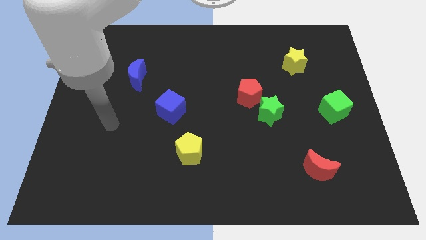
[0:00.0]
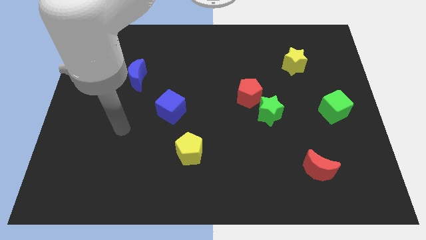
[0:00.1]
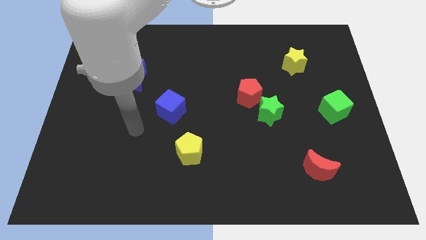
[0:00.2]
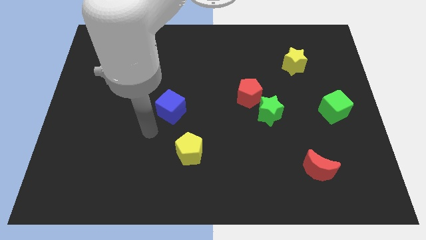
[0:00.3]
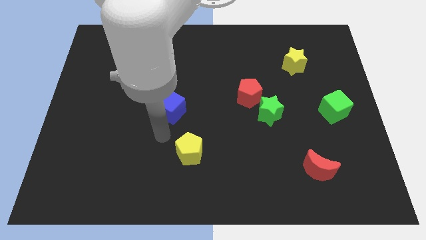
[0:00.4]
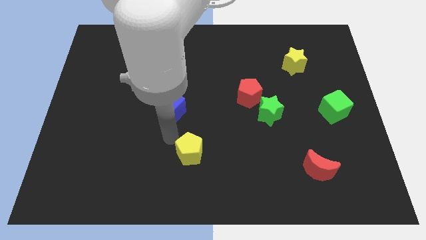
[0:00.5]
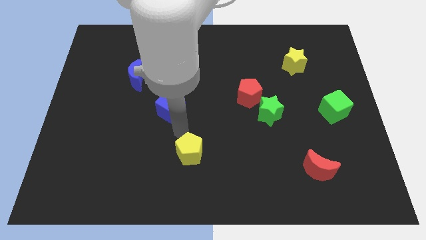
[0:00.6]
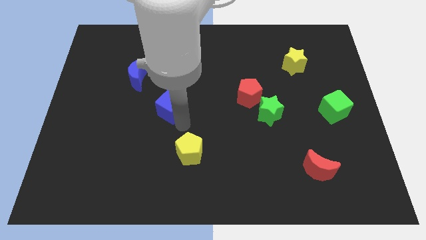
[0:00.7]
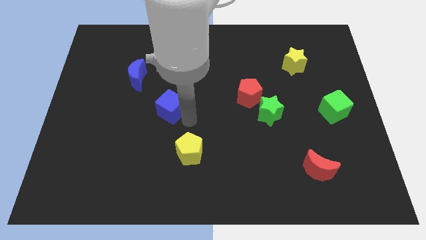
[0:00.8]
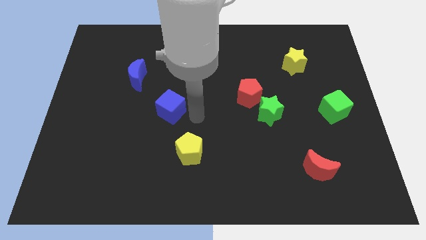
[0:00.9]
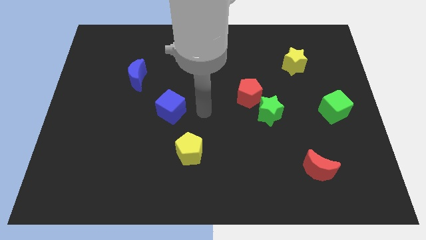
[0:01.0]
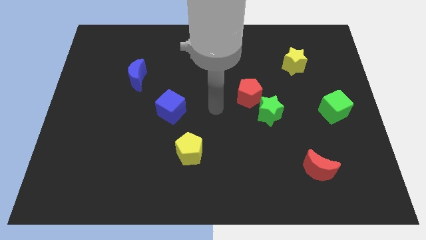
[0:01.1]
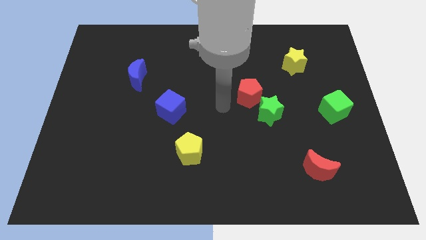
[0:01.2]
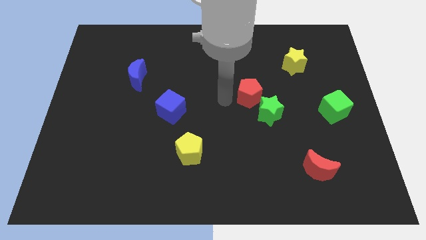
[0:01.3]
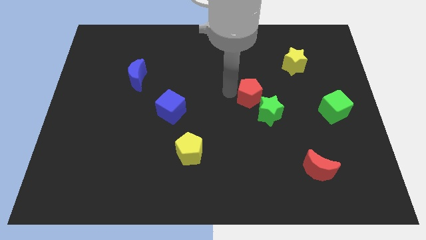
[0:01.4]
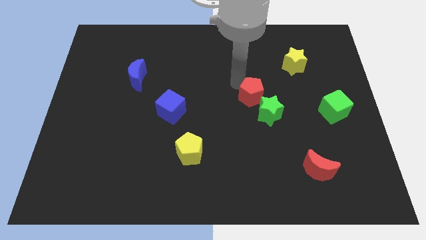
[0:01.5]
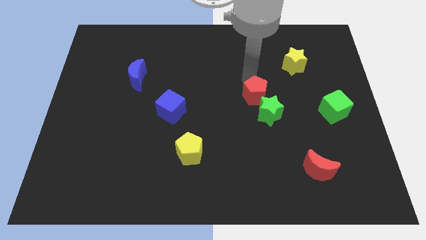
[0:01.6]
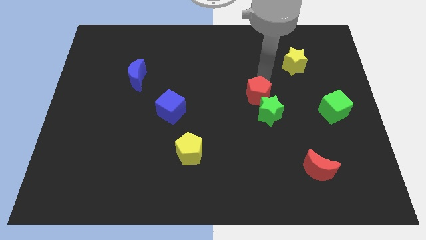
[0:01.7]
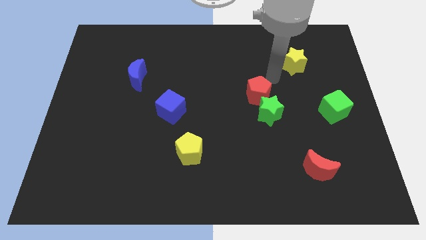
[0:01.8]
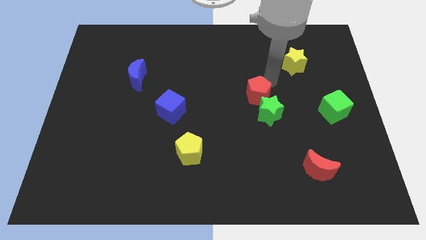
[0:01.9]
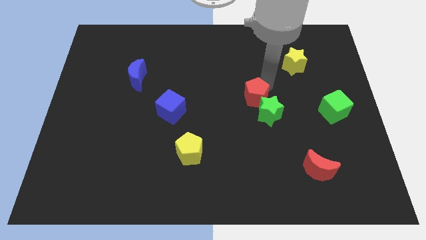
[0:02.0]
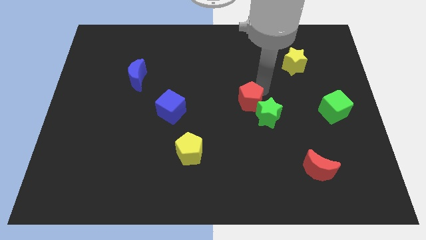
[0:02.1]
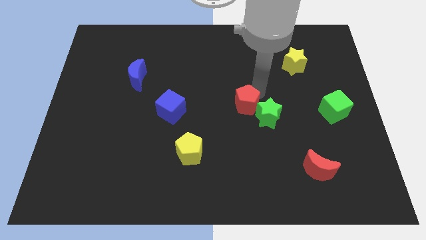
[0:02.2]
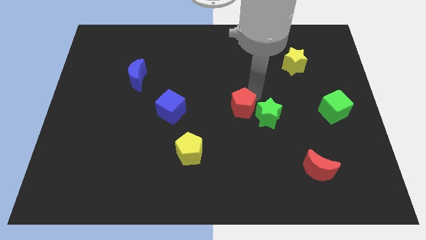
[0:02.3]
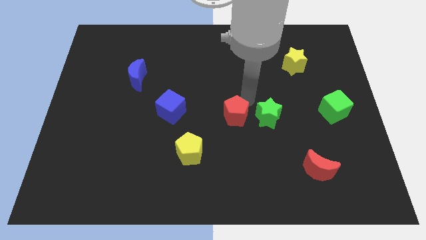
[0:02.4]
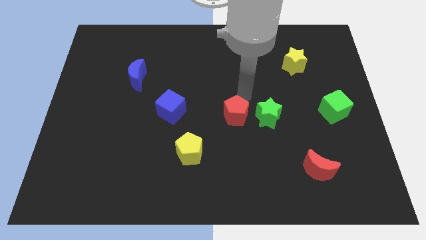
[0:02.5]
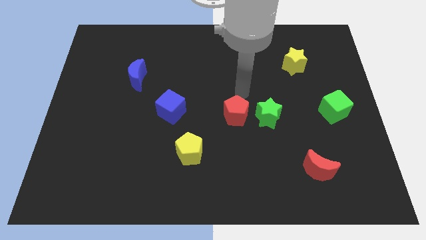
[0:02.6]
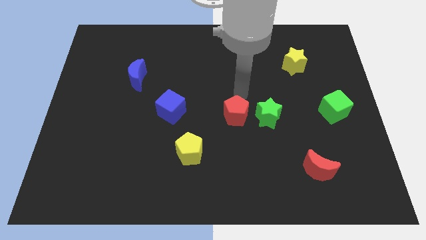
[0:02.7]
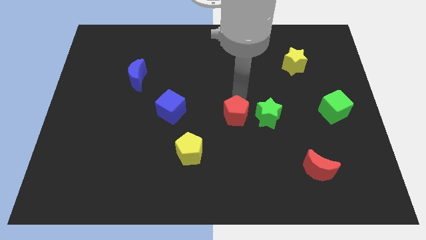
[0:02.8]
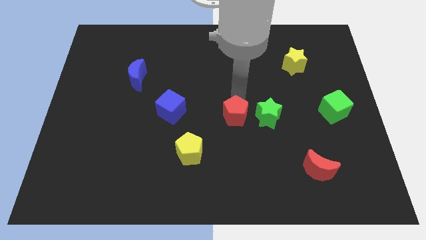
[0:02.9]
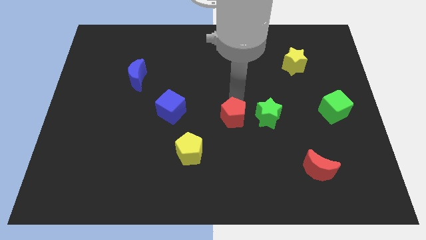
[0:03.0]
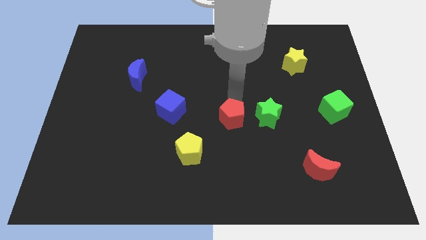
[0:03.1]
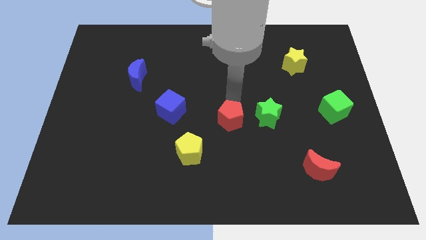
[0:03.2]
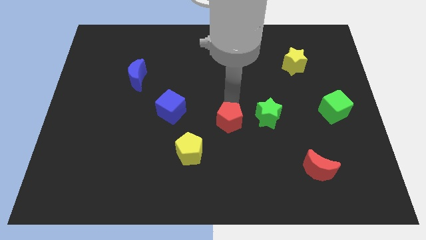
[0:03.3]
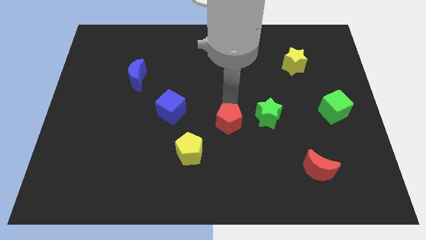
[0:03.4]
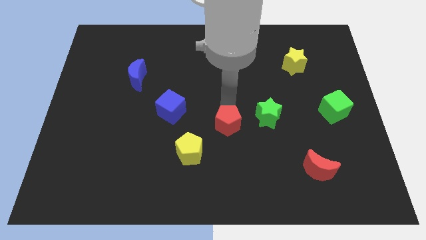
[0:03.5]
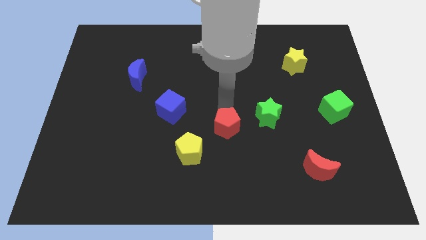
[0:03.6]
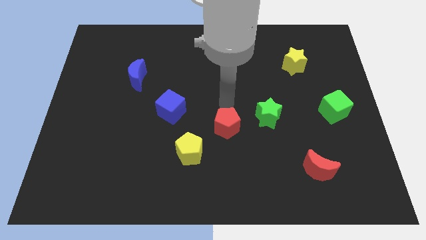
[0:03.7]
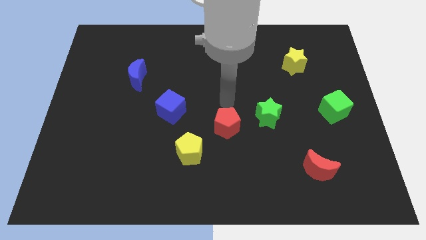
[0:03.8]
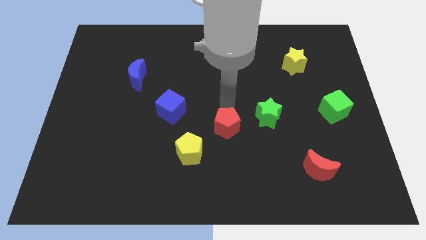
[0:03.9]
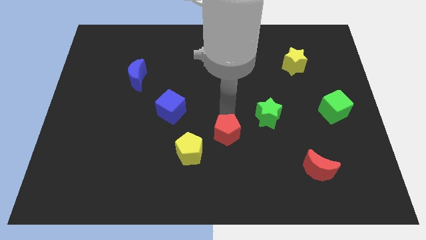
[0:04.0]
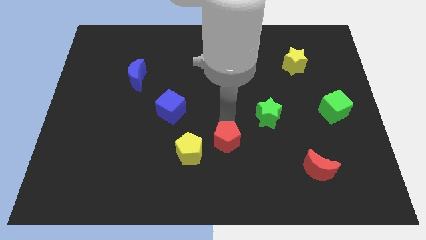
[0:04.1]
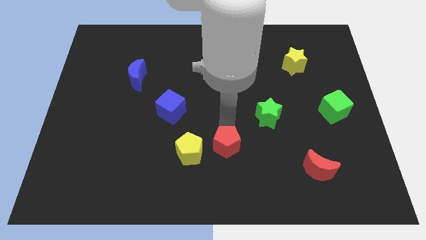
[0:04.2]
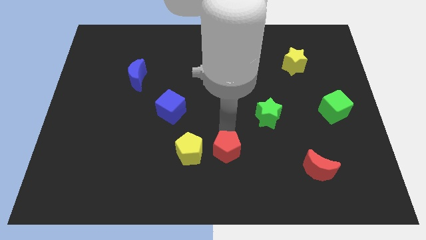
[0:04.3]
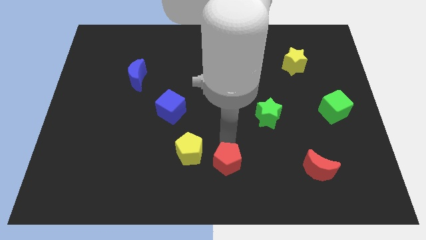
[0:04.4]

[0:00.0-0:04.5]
put the red pentagon to the bottom

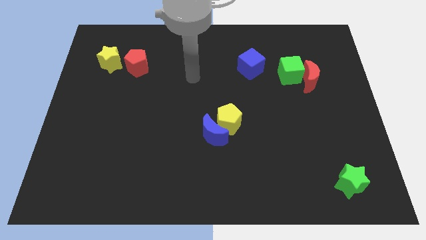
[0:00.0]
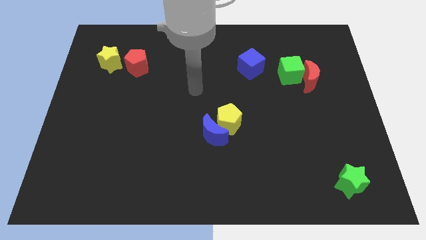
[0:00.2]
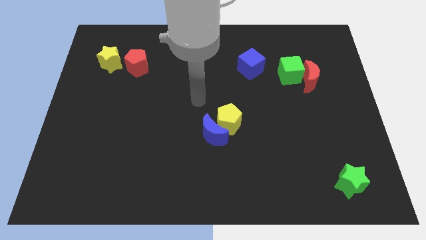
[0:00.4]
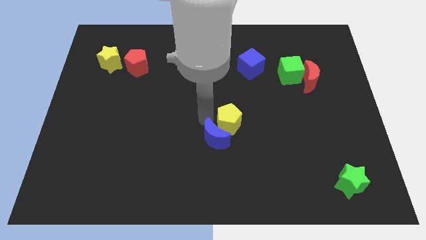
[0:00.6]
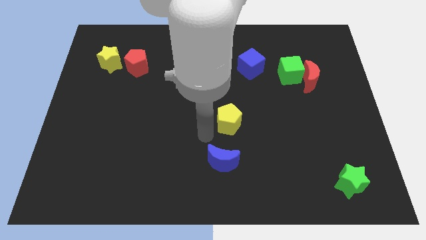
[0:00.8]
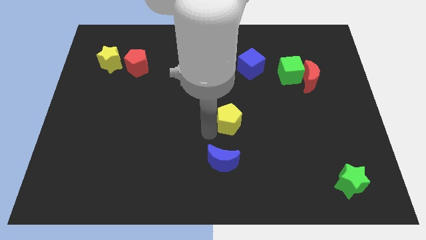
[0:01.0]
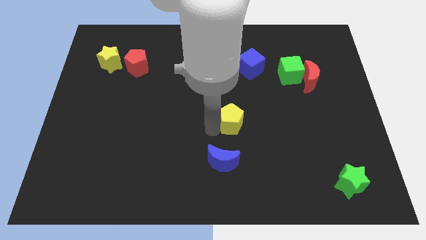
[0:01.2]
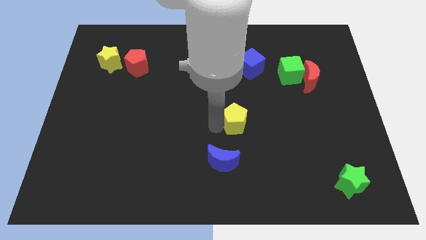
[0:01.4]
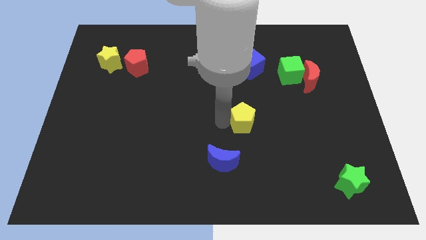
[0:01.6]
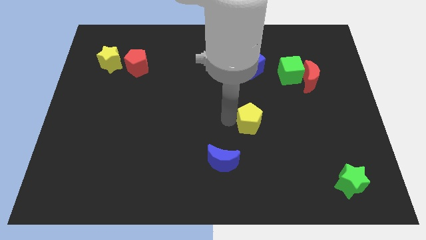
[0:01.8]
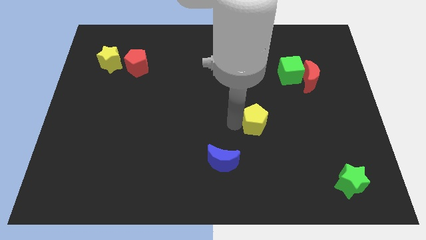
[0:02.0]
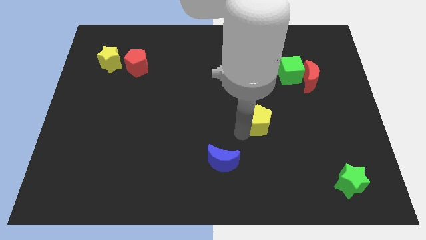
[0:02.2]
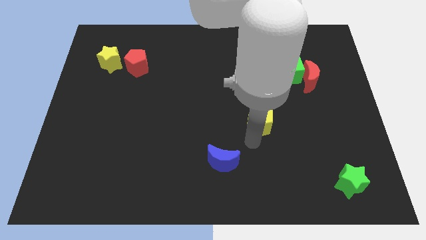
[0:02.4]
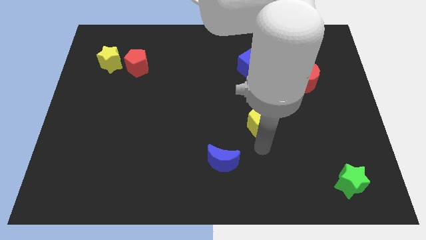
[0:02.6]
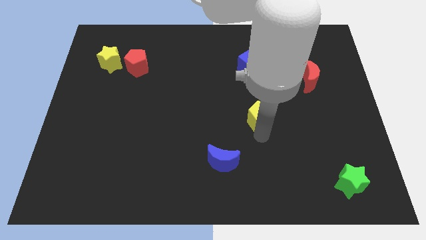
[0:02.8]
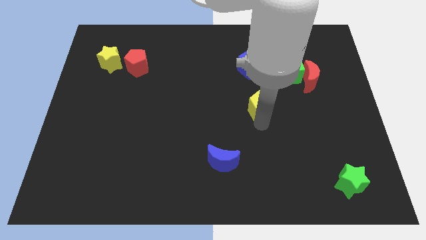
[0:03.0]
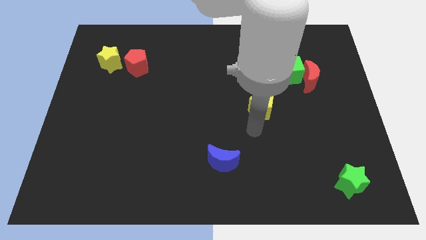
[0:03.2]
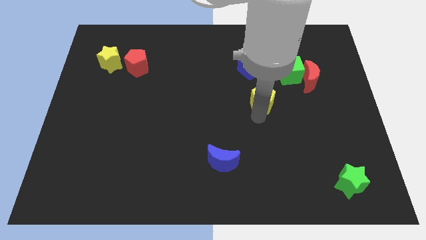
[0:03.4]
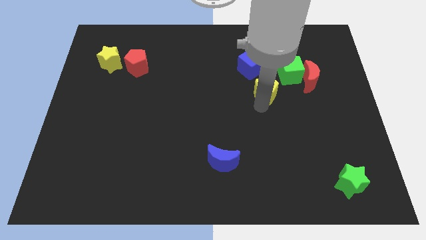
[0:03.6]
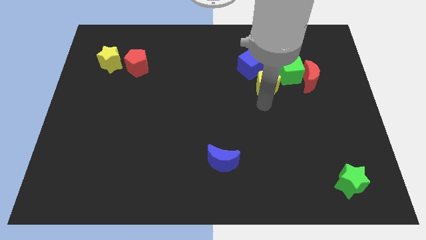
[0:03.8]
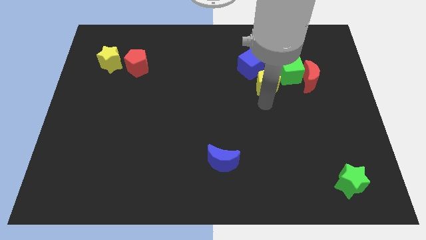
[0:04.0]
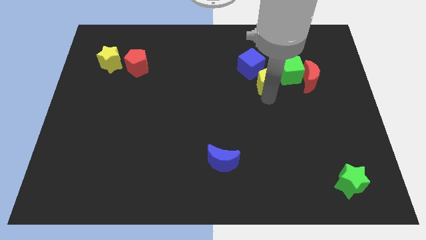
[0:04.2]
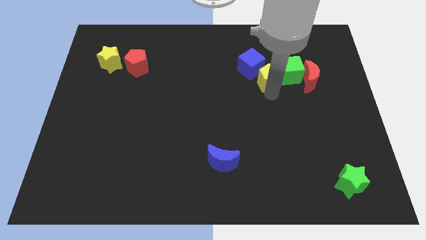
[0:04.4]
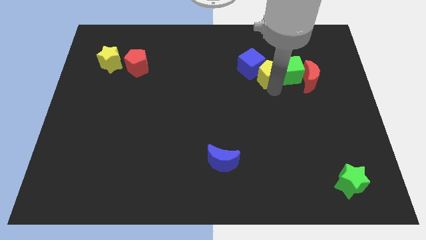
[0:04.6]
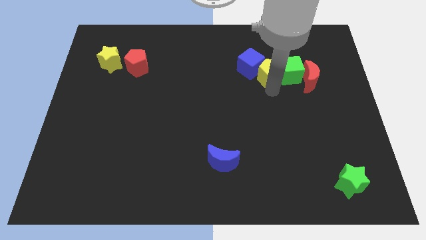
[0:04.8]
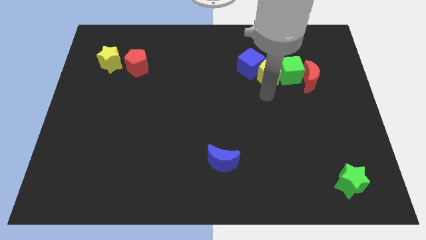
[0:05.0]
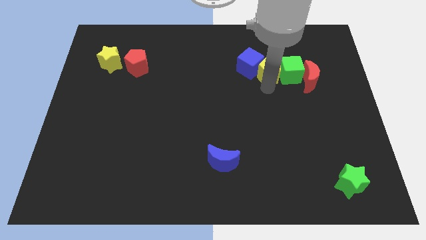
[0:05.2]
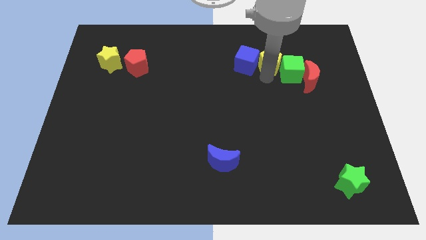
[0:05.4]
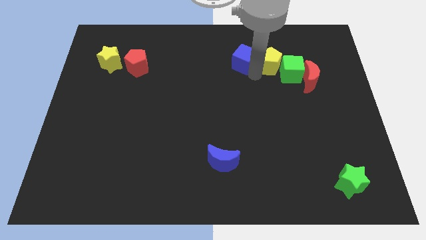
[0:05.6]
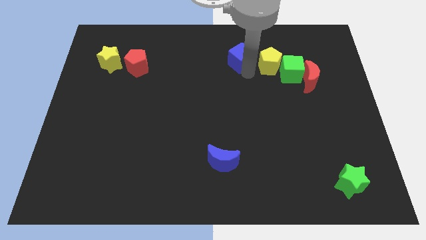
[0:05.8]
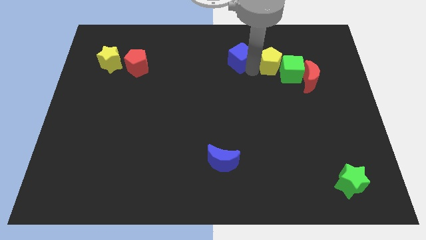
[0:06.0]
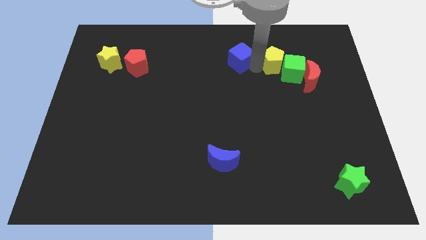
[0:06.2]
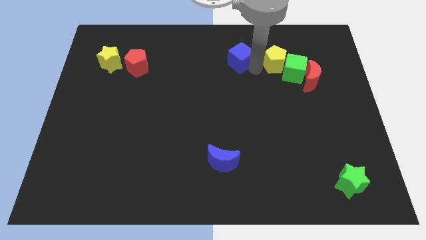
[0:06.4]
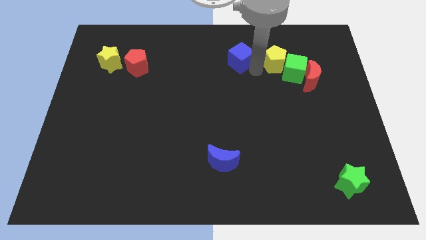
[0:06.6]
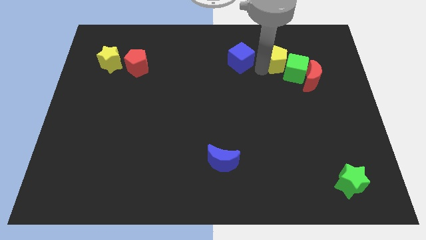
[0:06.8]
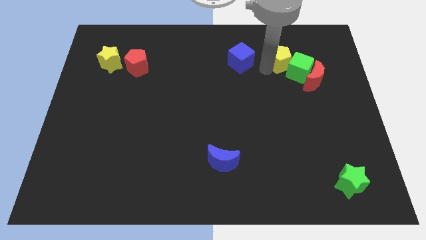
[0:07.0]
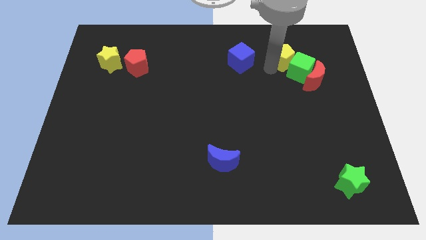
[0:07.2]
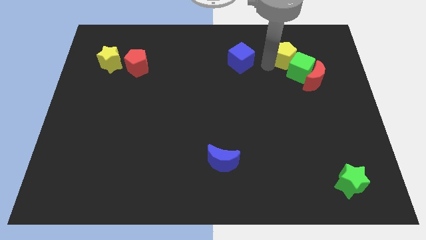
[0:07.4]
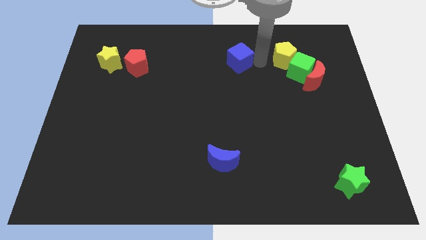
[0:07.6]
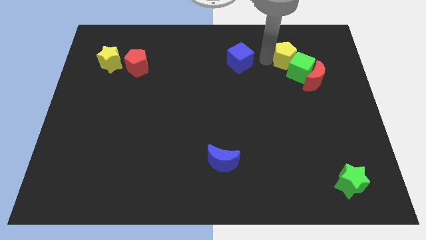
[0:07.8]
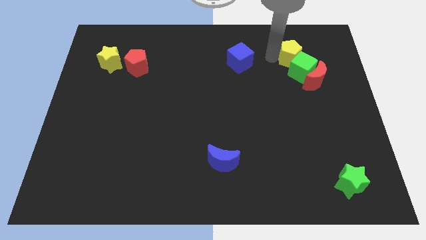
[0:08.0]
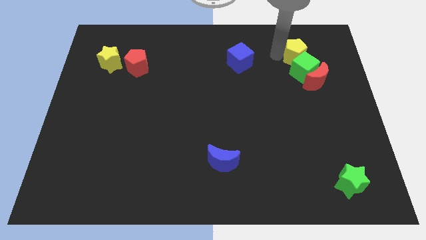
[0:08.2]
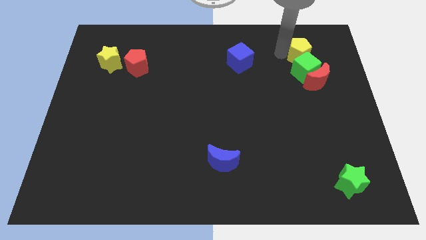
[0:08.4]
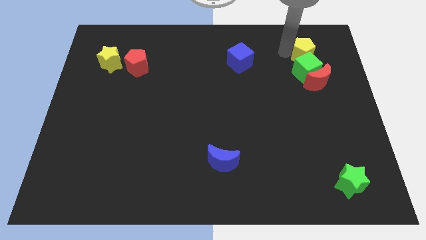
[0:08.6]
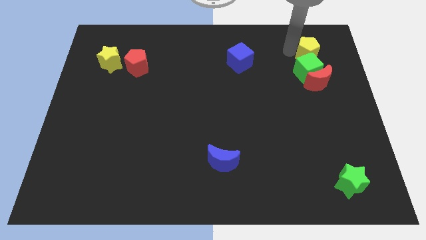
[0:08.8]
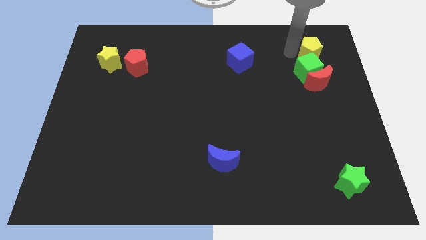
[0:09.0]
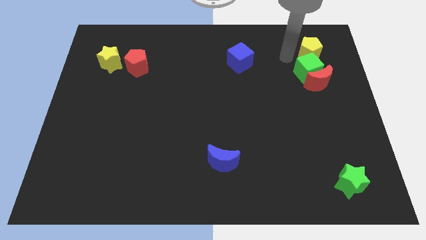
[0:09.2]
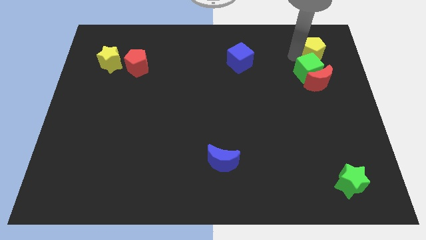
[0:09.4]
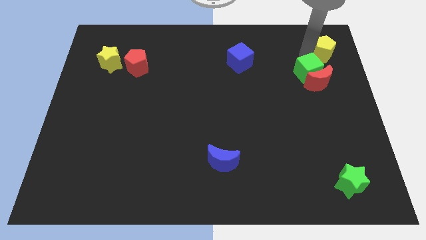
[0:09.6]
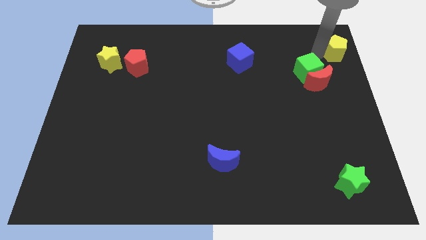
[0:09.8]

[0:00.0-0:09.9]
slide the yellow pentagon to the top right of the board
